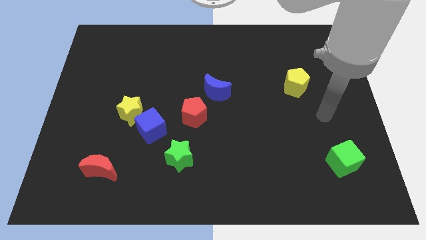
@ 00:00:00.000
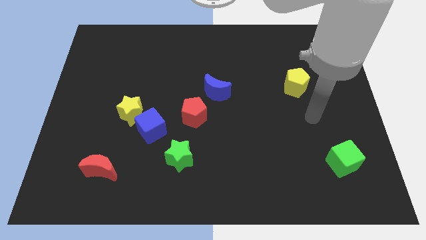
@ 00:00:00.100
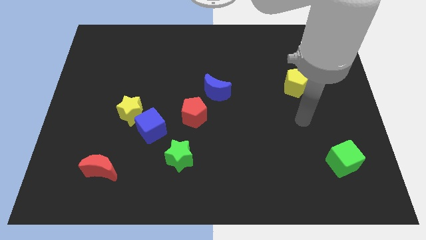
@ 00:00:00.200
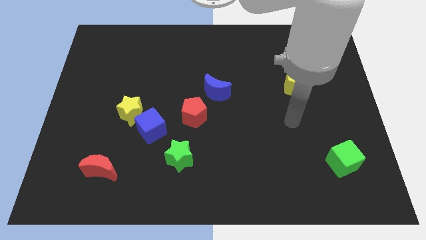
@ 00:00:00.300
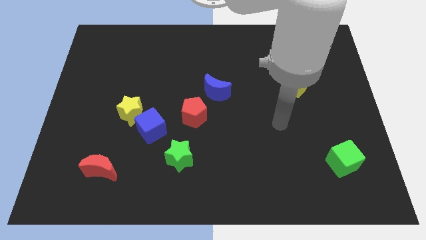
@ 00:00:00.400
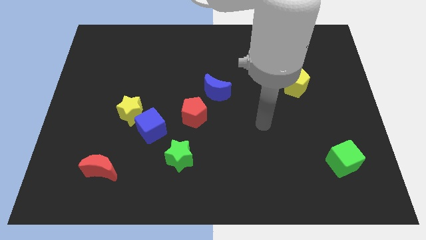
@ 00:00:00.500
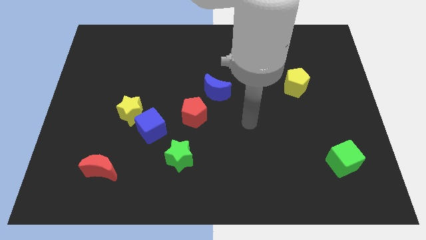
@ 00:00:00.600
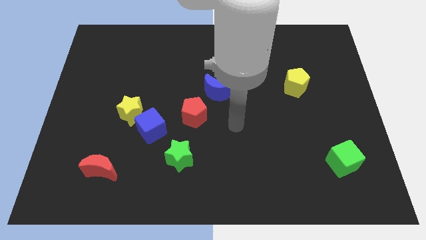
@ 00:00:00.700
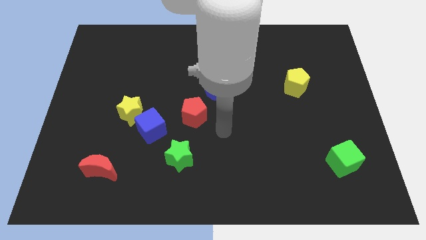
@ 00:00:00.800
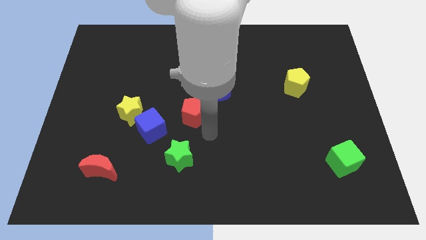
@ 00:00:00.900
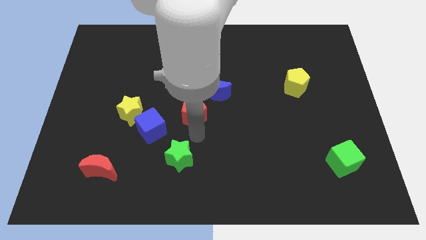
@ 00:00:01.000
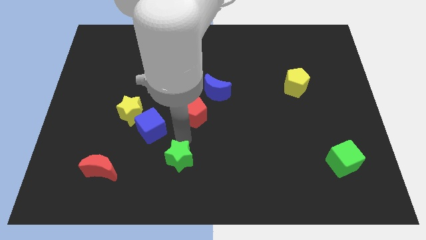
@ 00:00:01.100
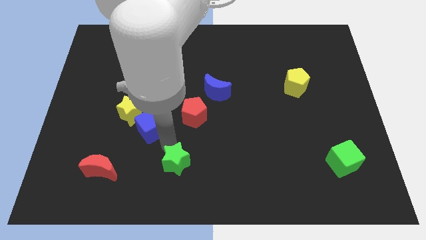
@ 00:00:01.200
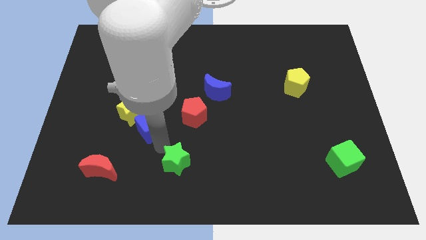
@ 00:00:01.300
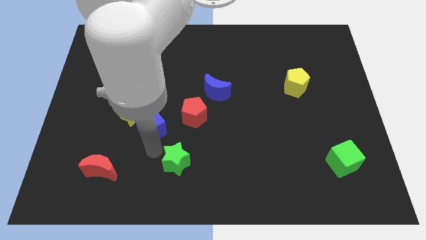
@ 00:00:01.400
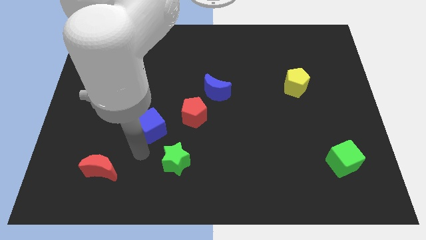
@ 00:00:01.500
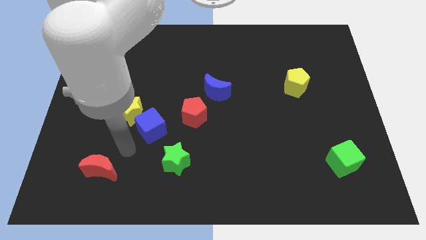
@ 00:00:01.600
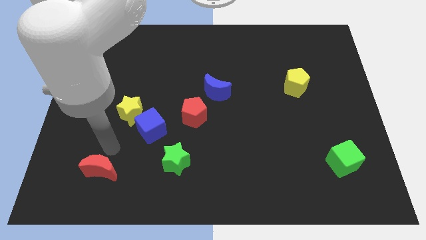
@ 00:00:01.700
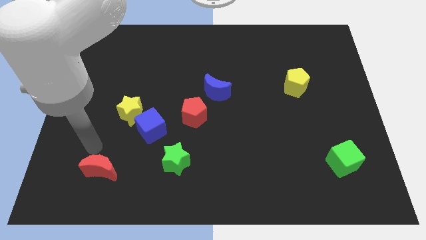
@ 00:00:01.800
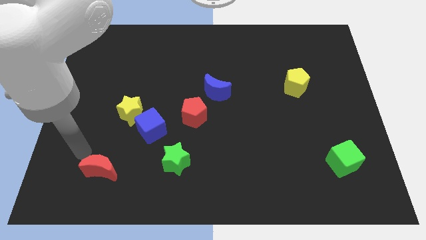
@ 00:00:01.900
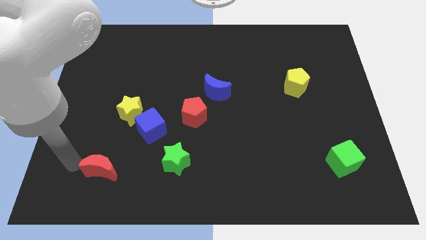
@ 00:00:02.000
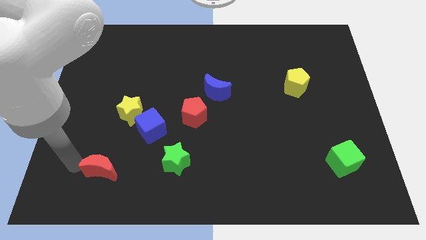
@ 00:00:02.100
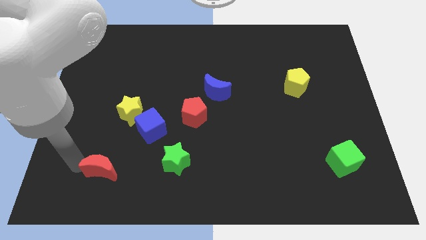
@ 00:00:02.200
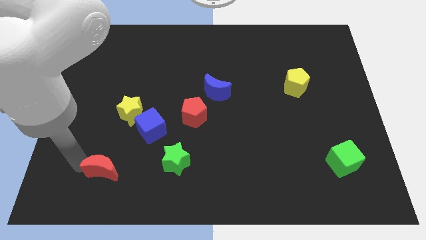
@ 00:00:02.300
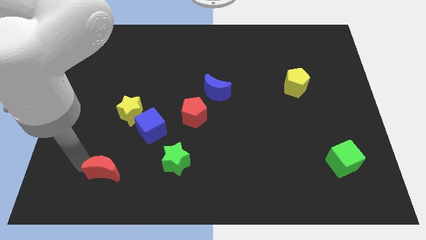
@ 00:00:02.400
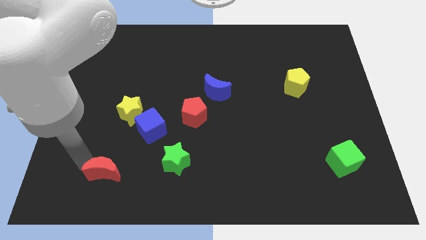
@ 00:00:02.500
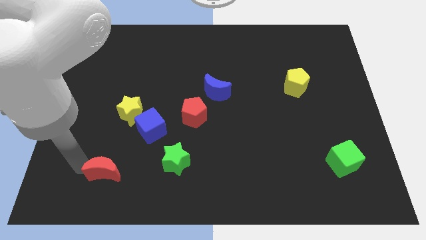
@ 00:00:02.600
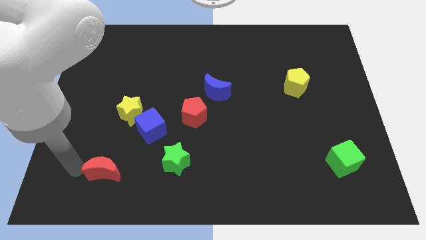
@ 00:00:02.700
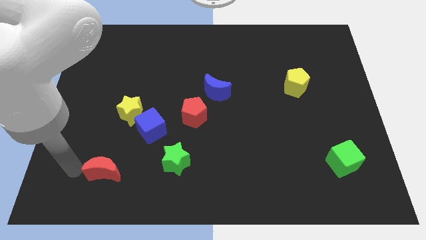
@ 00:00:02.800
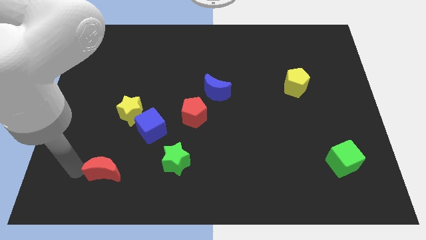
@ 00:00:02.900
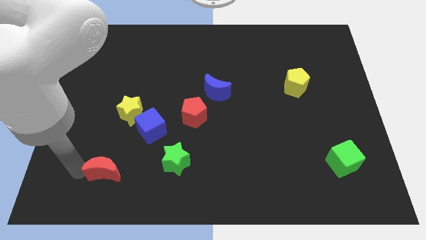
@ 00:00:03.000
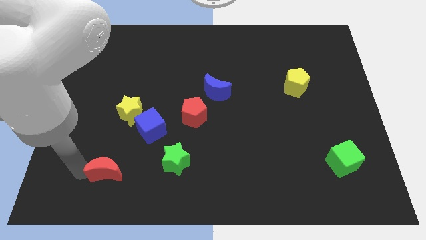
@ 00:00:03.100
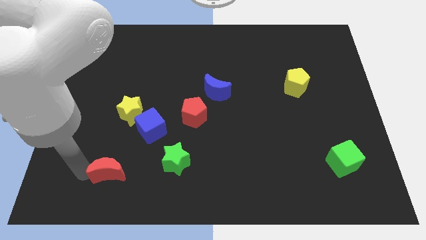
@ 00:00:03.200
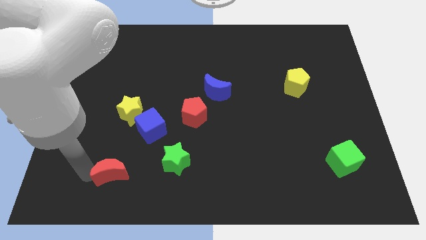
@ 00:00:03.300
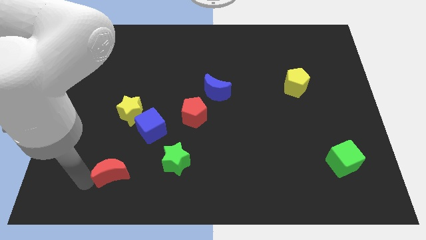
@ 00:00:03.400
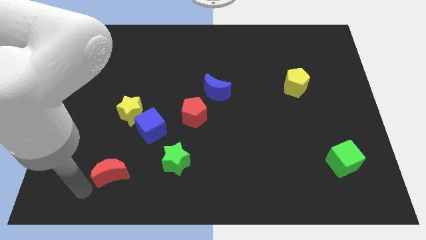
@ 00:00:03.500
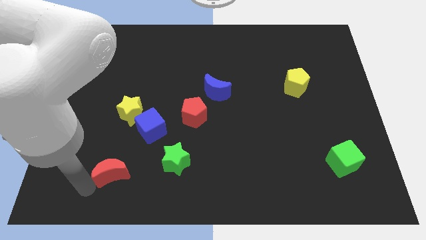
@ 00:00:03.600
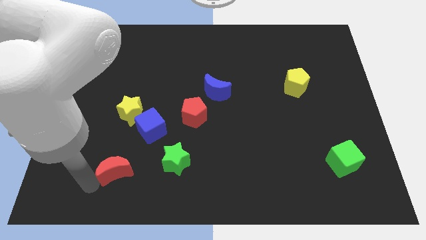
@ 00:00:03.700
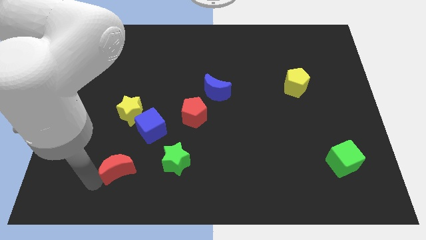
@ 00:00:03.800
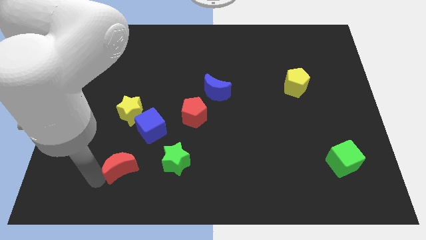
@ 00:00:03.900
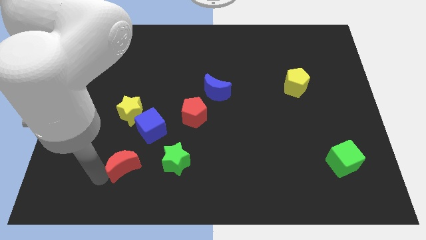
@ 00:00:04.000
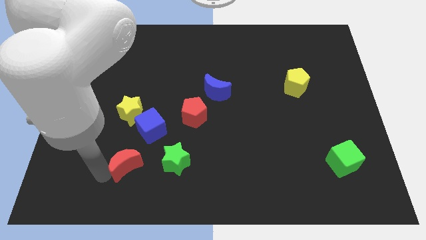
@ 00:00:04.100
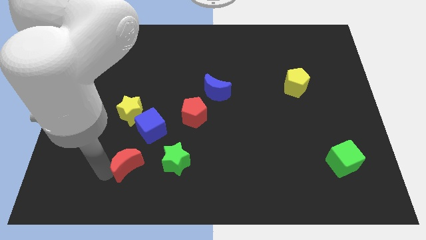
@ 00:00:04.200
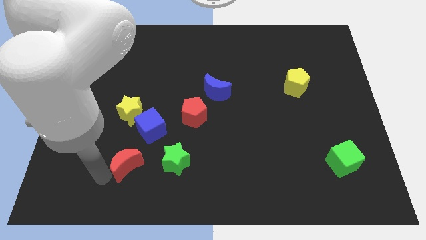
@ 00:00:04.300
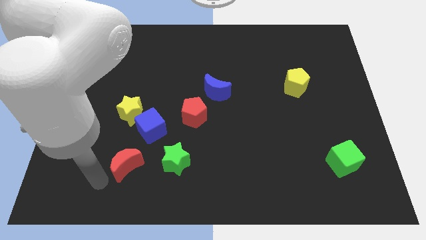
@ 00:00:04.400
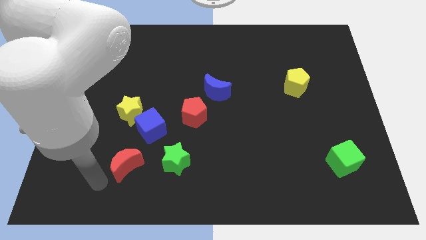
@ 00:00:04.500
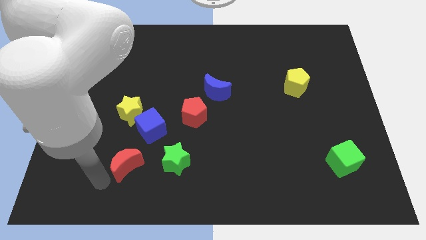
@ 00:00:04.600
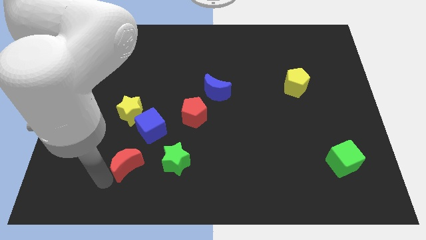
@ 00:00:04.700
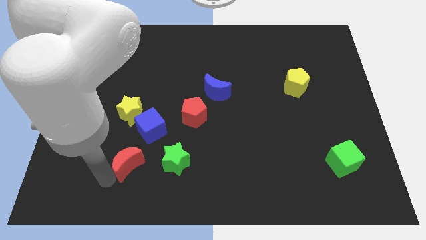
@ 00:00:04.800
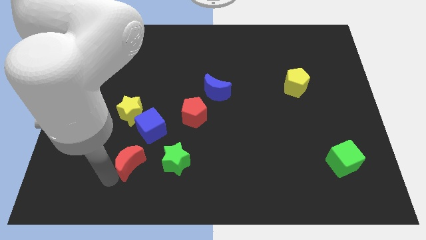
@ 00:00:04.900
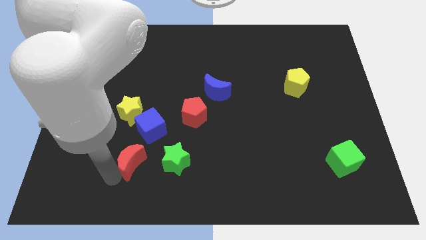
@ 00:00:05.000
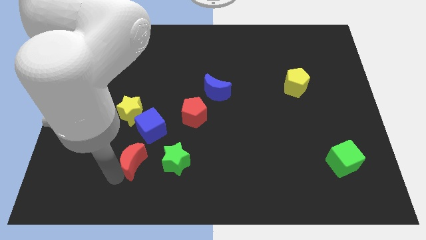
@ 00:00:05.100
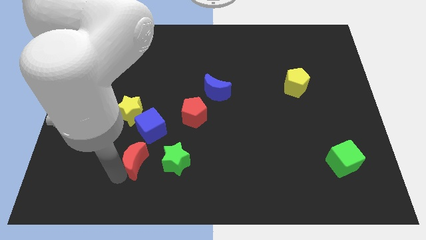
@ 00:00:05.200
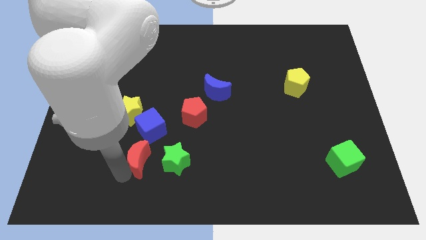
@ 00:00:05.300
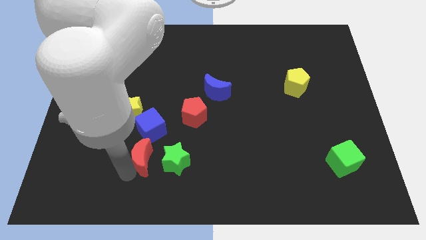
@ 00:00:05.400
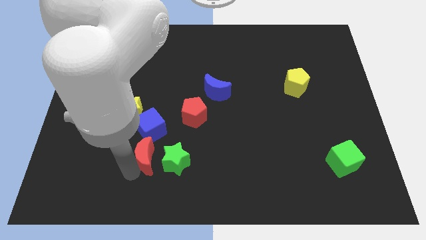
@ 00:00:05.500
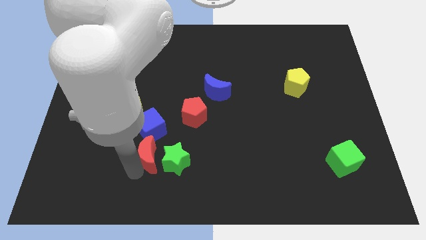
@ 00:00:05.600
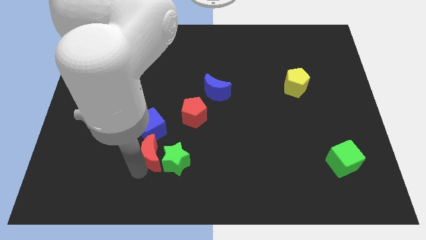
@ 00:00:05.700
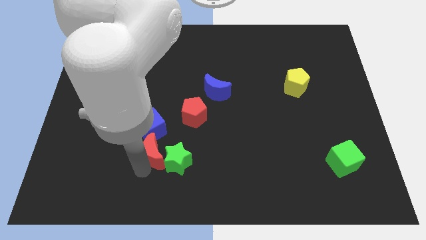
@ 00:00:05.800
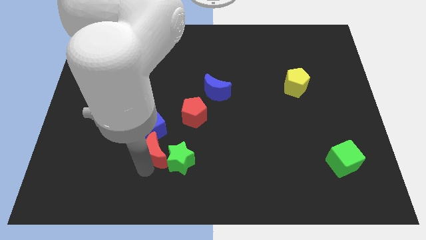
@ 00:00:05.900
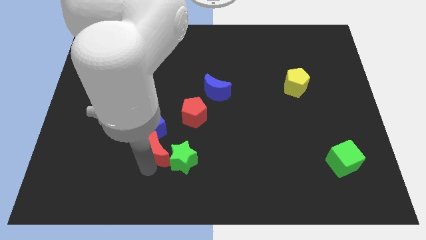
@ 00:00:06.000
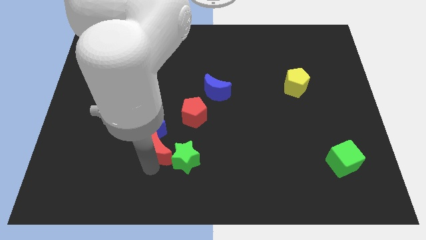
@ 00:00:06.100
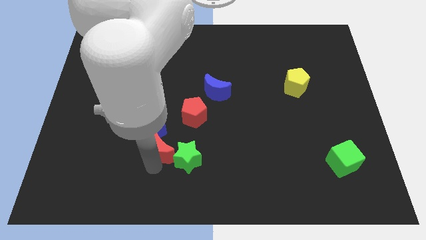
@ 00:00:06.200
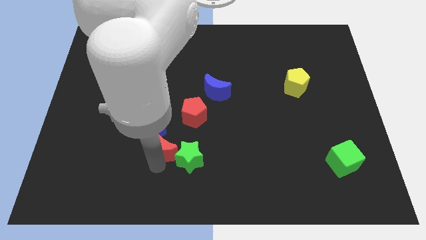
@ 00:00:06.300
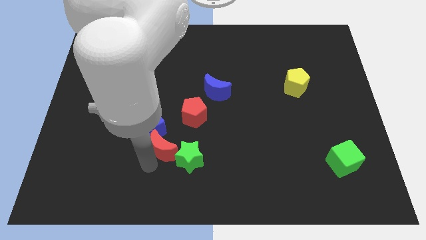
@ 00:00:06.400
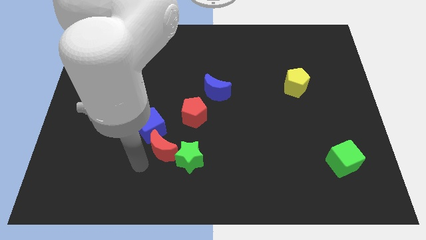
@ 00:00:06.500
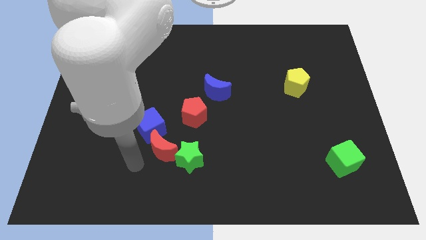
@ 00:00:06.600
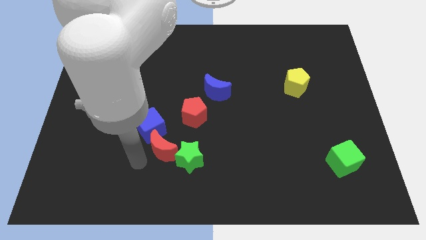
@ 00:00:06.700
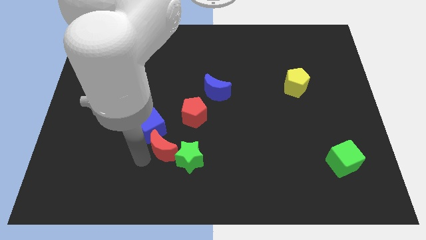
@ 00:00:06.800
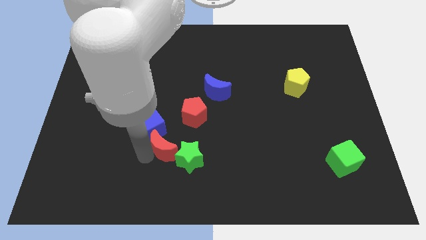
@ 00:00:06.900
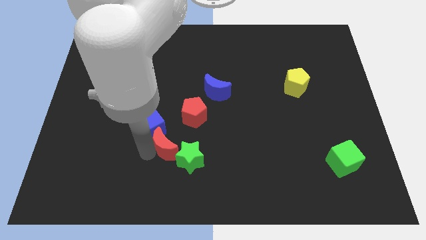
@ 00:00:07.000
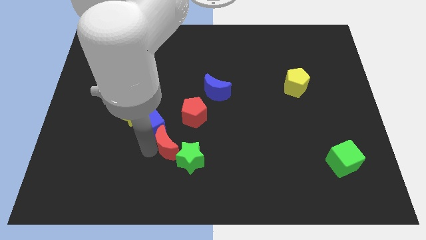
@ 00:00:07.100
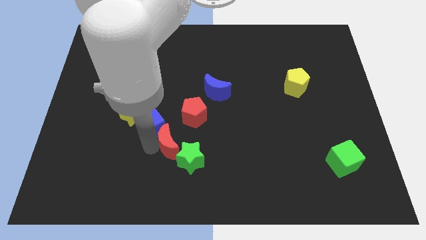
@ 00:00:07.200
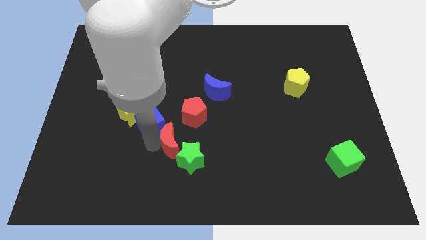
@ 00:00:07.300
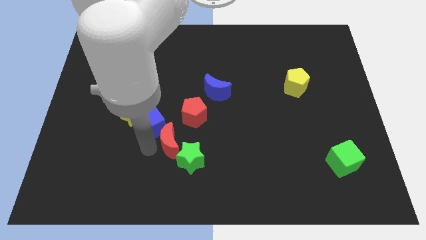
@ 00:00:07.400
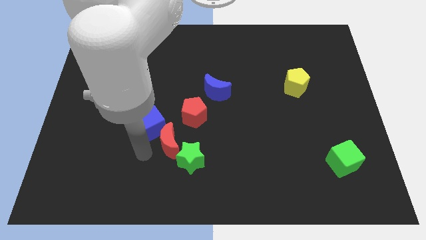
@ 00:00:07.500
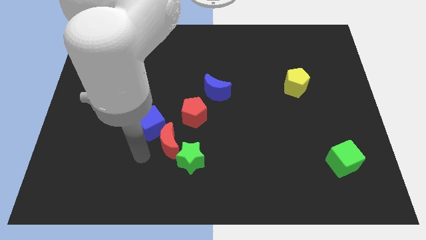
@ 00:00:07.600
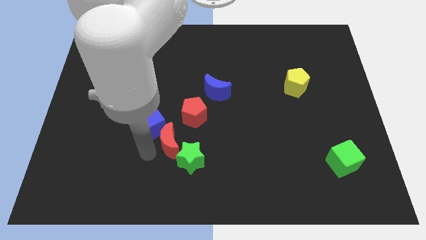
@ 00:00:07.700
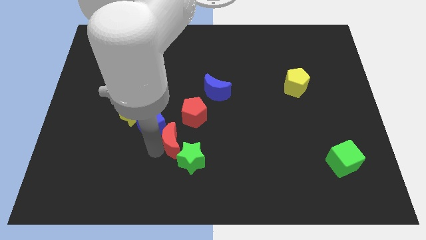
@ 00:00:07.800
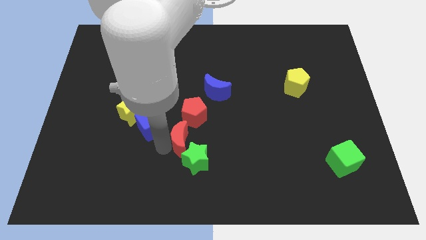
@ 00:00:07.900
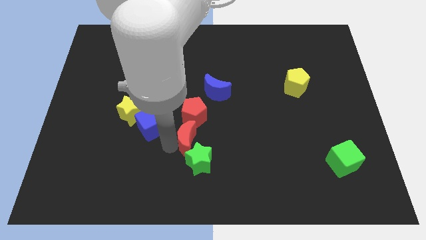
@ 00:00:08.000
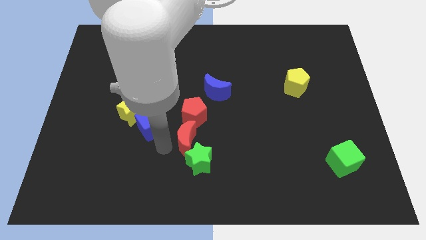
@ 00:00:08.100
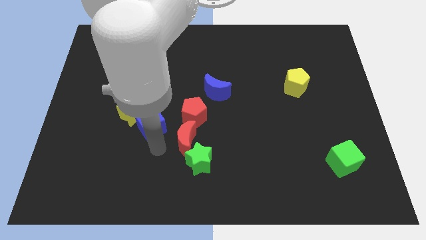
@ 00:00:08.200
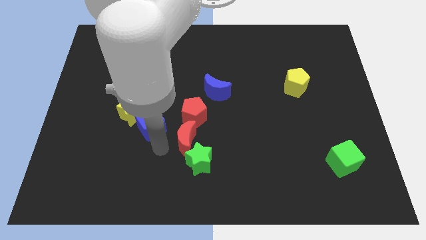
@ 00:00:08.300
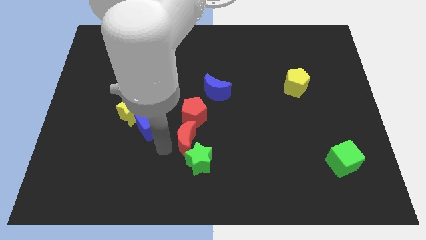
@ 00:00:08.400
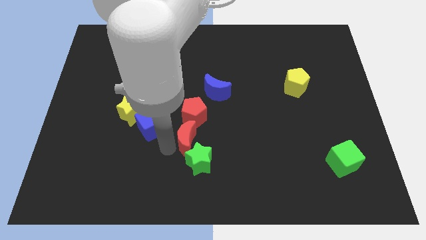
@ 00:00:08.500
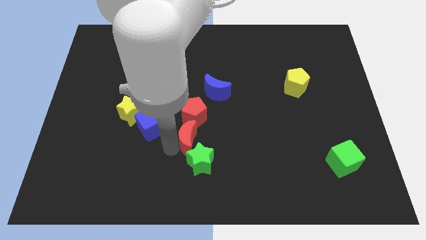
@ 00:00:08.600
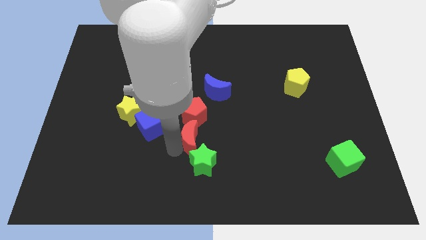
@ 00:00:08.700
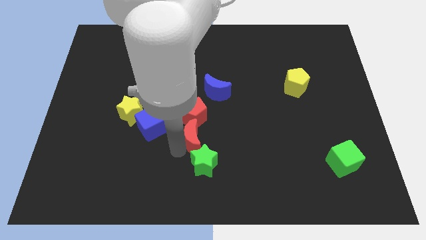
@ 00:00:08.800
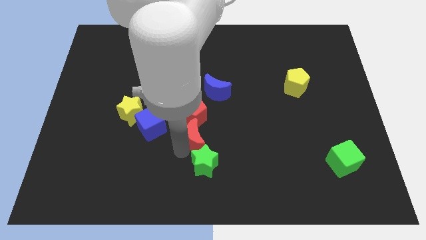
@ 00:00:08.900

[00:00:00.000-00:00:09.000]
put the red moon diagonally down and to the right of the red pentagon
